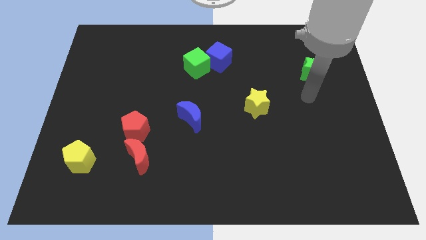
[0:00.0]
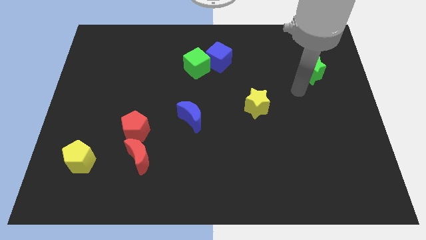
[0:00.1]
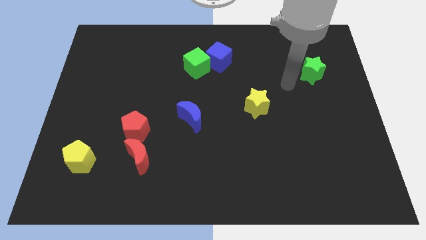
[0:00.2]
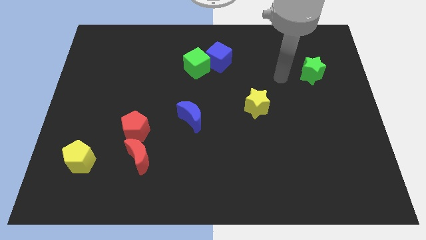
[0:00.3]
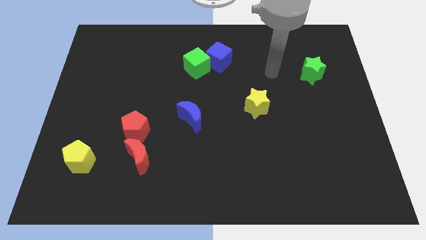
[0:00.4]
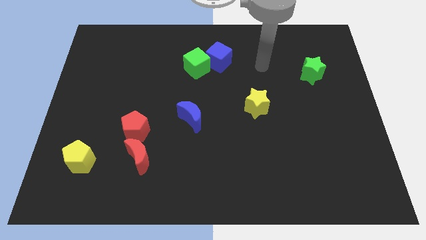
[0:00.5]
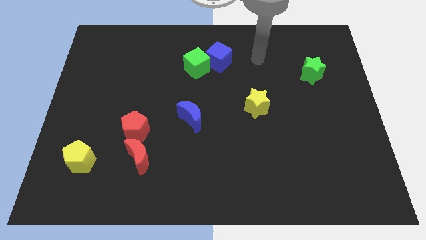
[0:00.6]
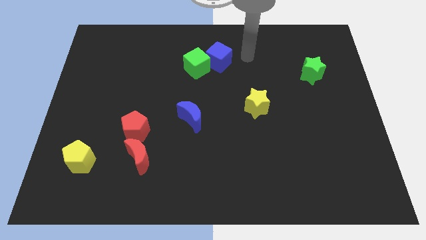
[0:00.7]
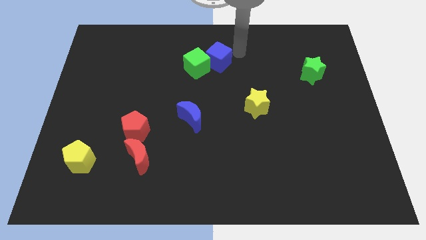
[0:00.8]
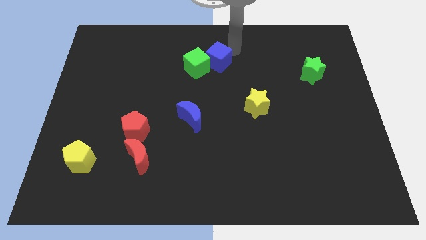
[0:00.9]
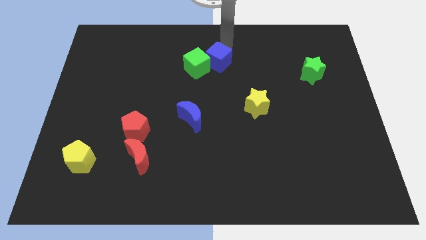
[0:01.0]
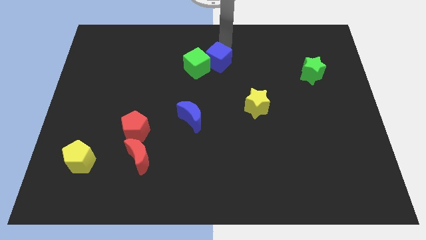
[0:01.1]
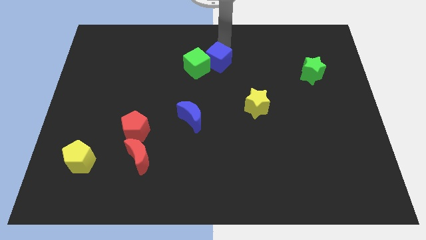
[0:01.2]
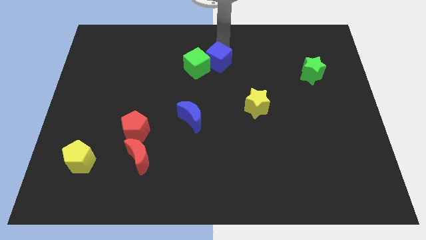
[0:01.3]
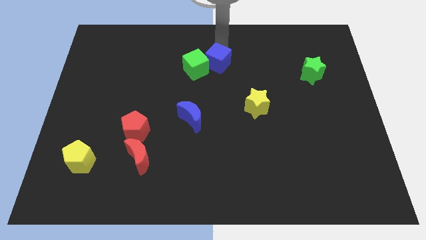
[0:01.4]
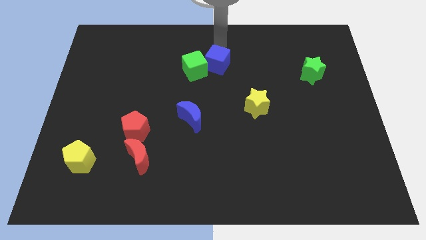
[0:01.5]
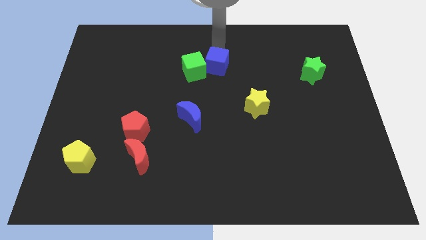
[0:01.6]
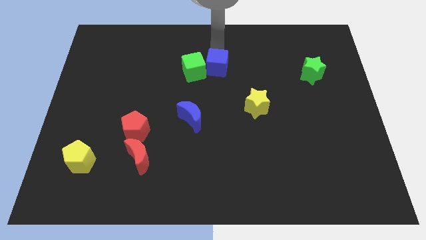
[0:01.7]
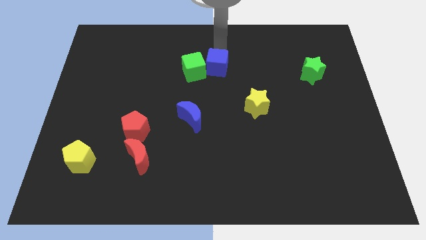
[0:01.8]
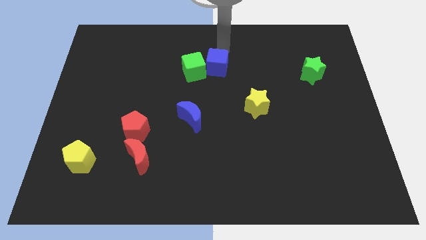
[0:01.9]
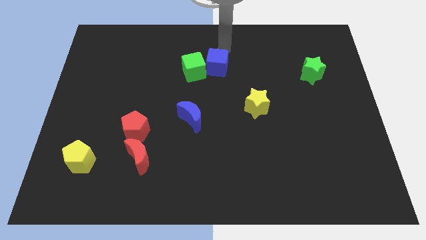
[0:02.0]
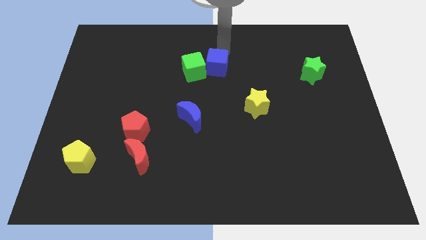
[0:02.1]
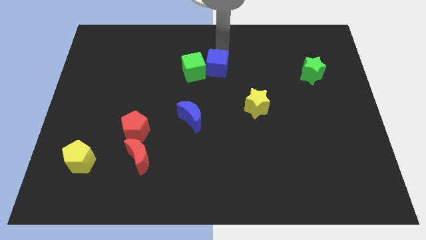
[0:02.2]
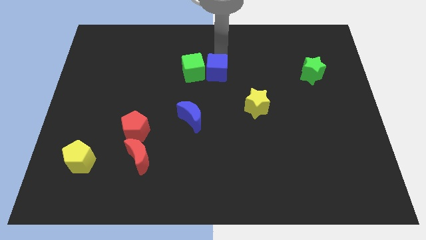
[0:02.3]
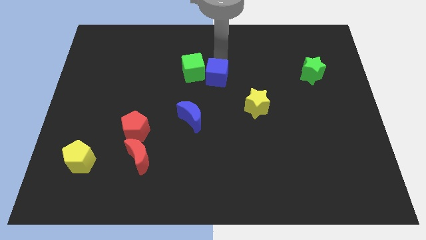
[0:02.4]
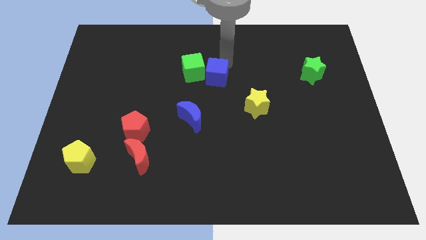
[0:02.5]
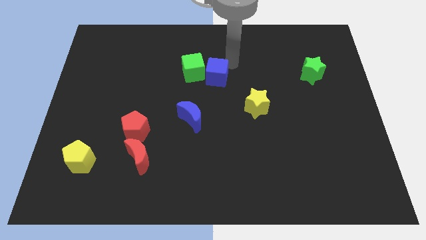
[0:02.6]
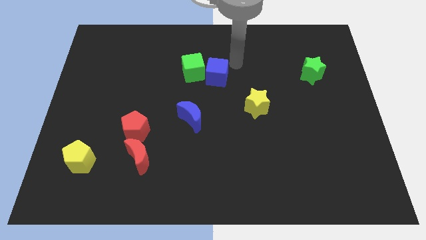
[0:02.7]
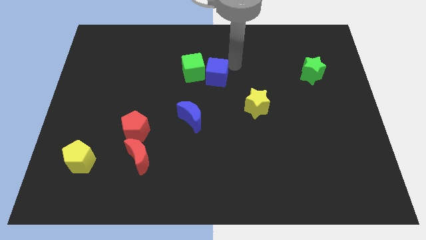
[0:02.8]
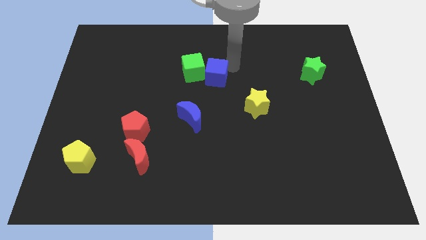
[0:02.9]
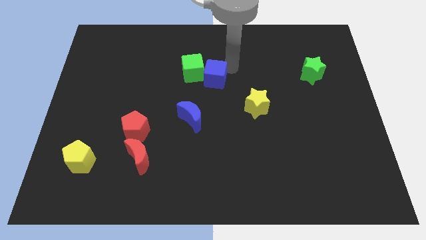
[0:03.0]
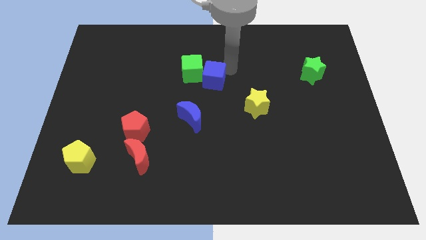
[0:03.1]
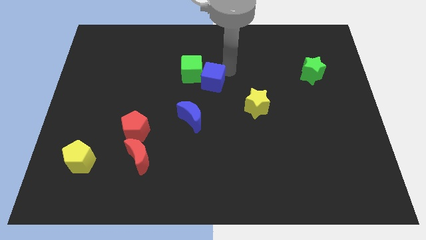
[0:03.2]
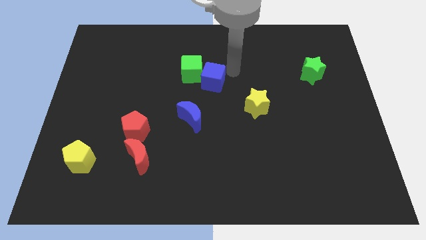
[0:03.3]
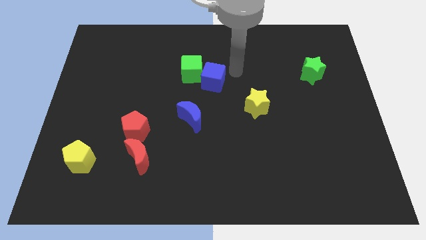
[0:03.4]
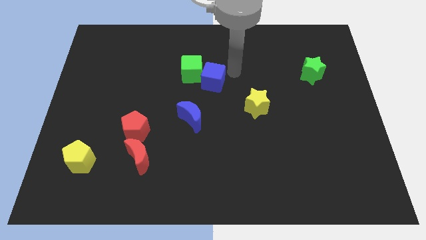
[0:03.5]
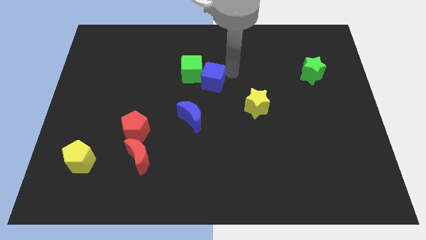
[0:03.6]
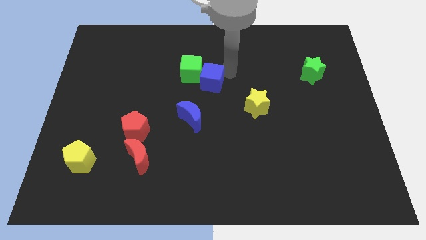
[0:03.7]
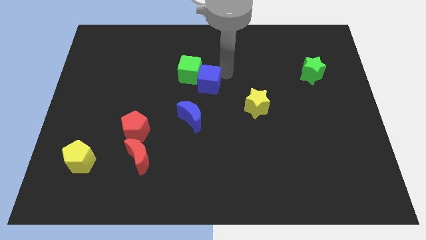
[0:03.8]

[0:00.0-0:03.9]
slide the blue cube somewhat down and to the left

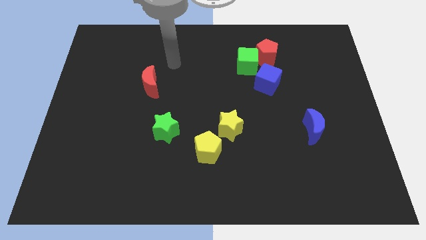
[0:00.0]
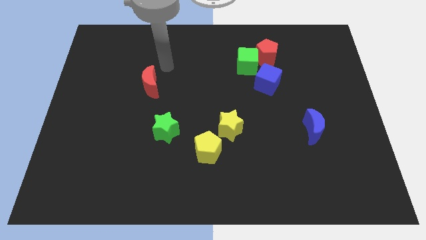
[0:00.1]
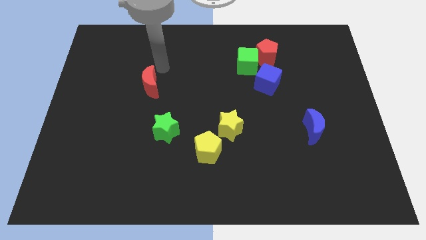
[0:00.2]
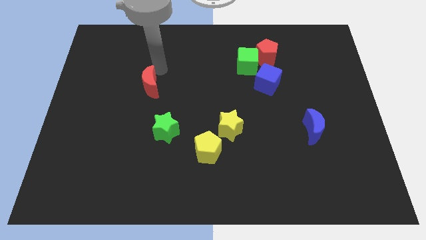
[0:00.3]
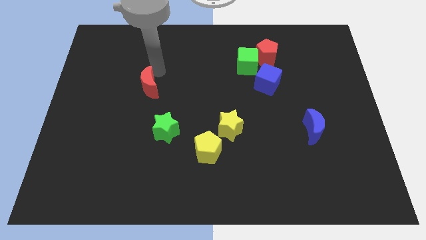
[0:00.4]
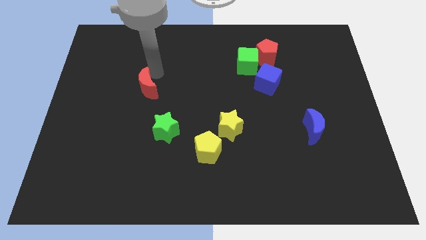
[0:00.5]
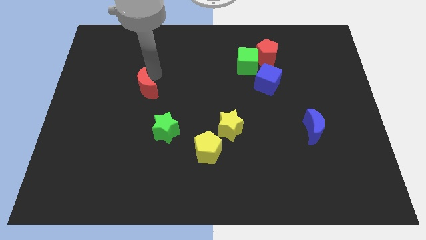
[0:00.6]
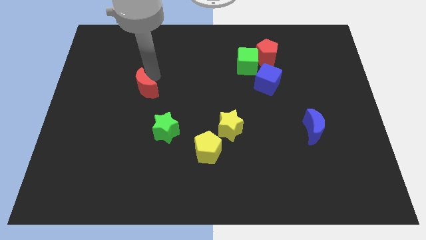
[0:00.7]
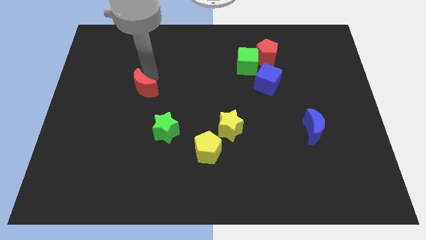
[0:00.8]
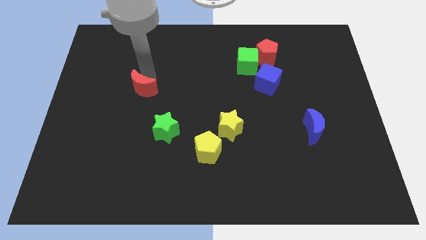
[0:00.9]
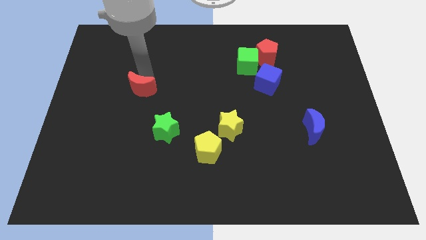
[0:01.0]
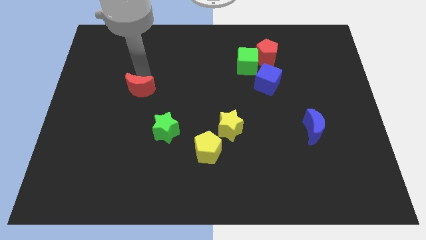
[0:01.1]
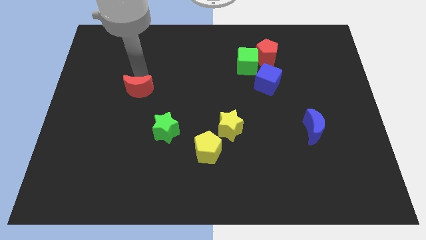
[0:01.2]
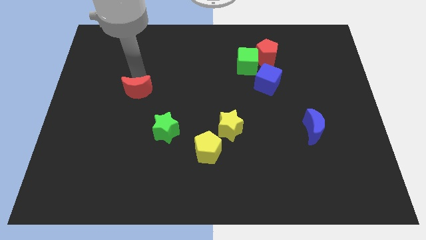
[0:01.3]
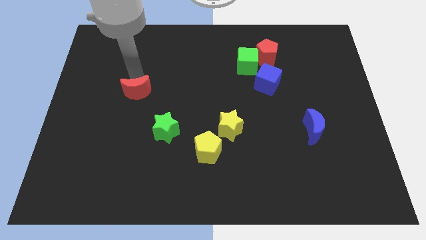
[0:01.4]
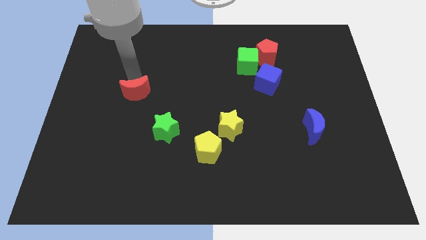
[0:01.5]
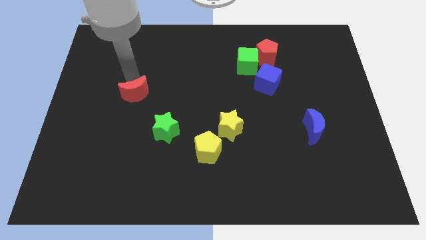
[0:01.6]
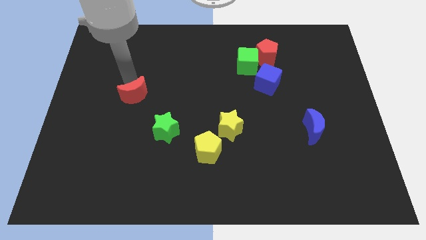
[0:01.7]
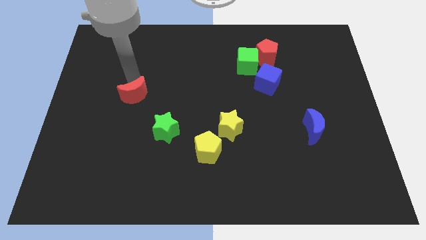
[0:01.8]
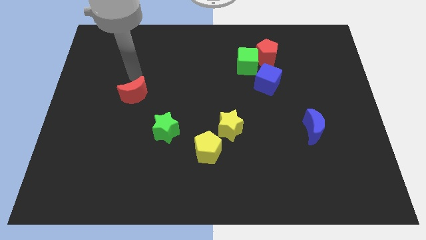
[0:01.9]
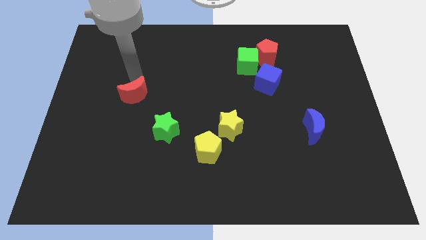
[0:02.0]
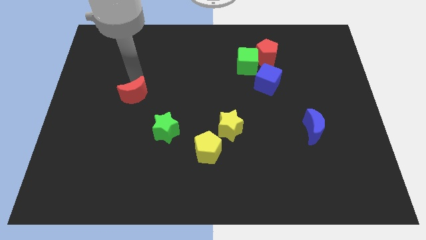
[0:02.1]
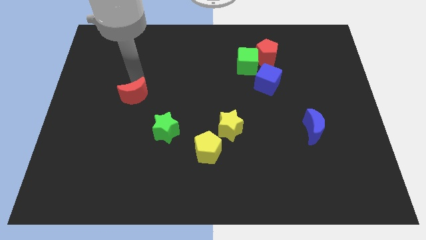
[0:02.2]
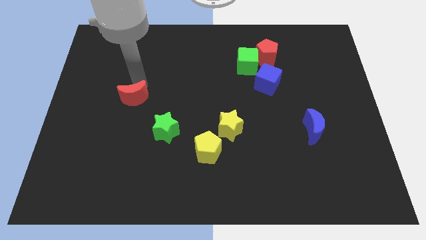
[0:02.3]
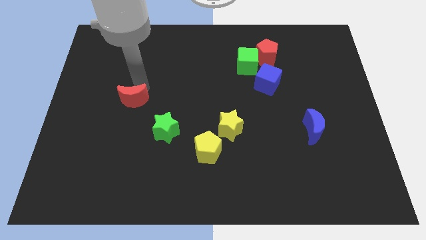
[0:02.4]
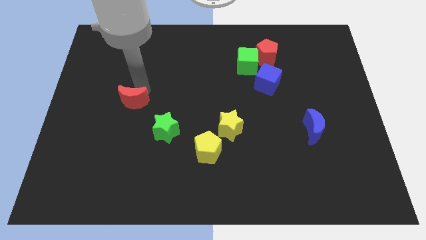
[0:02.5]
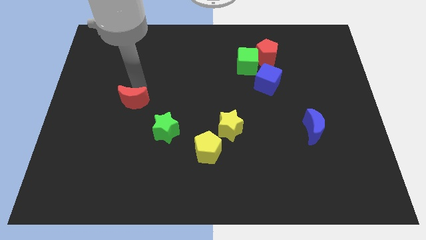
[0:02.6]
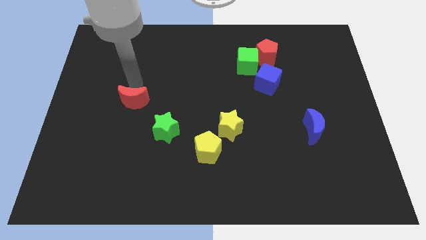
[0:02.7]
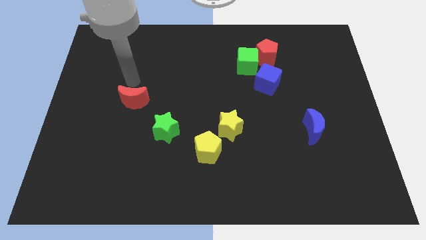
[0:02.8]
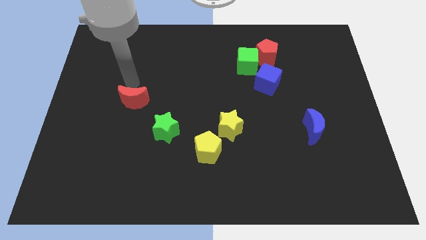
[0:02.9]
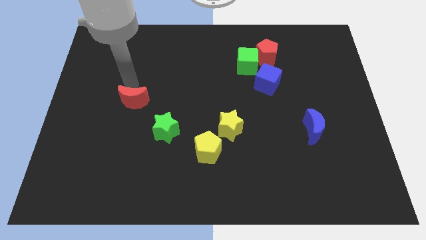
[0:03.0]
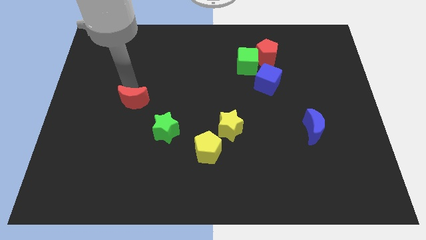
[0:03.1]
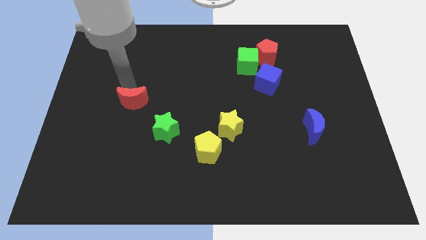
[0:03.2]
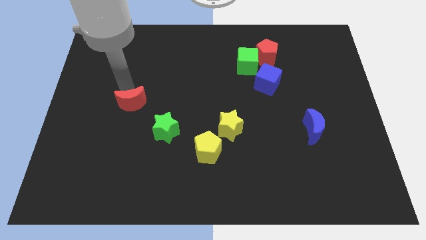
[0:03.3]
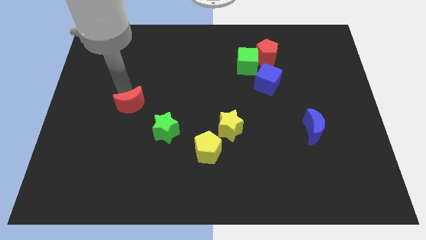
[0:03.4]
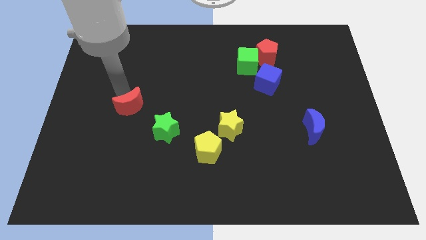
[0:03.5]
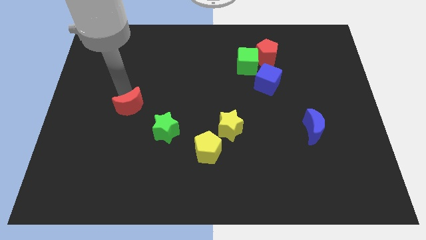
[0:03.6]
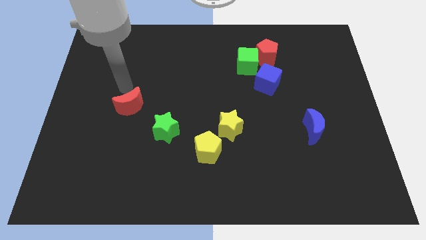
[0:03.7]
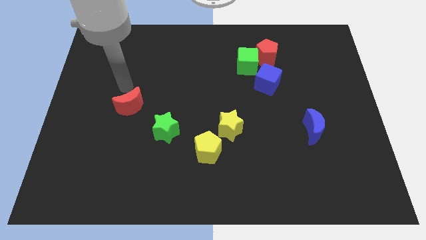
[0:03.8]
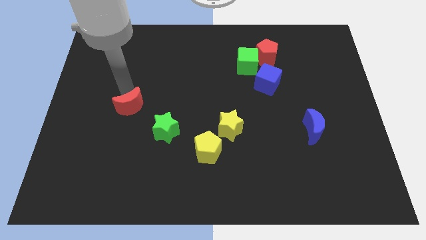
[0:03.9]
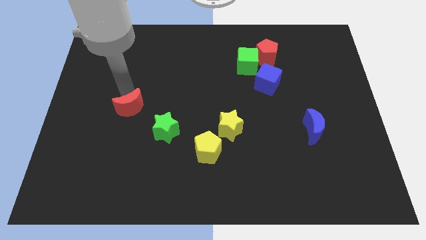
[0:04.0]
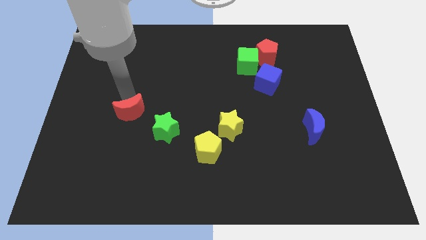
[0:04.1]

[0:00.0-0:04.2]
slide the red moon downwards slightly
